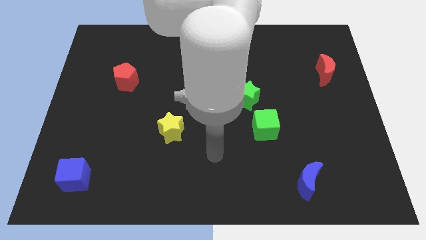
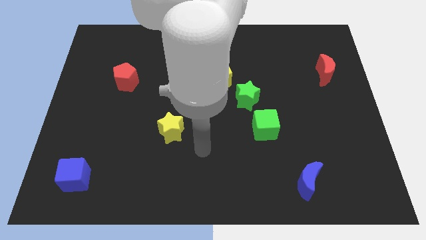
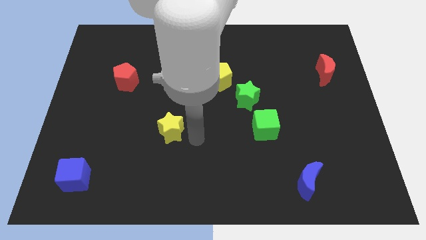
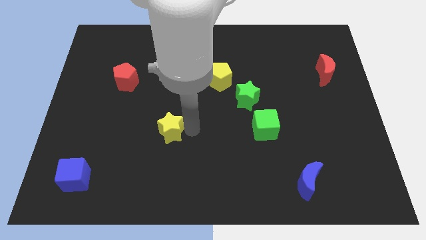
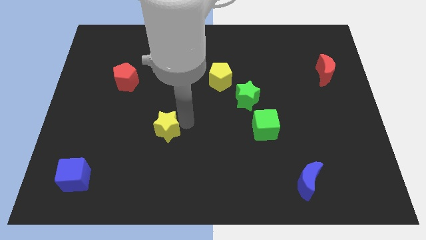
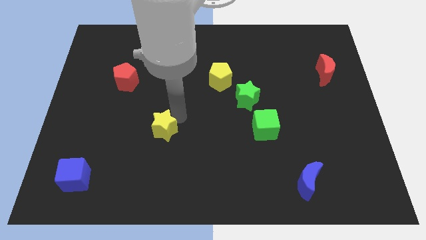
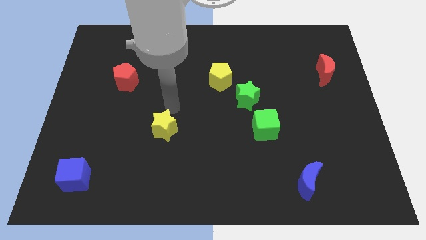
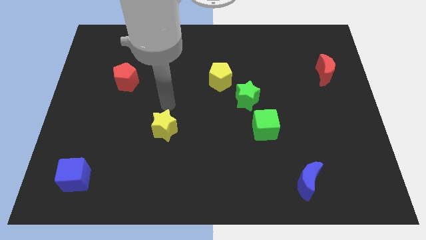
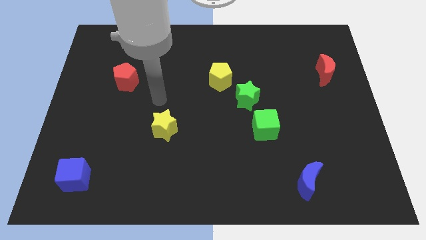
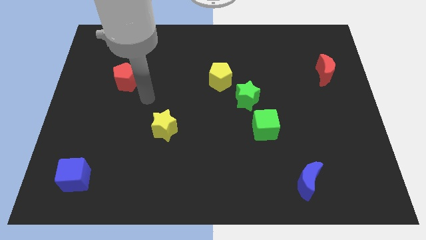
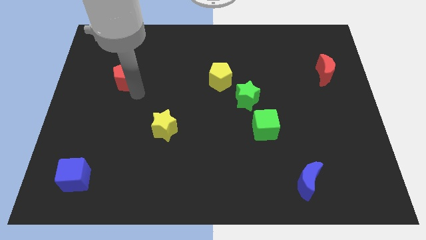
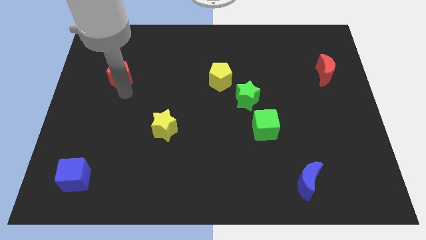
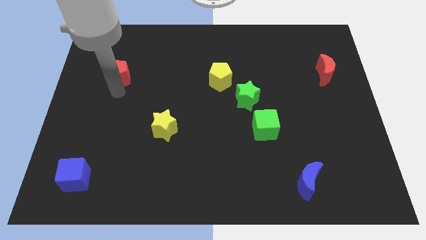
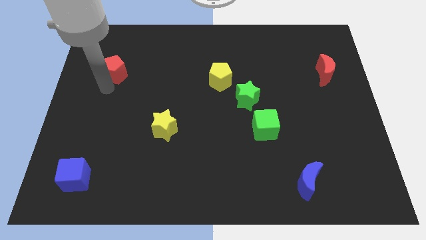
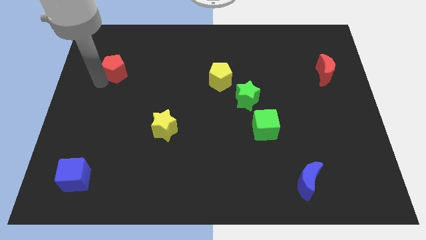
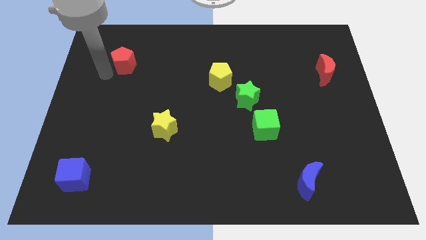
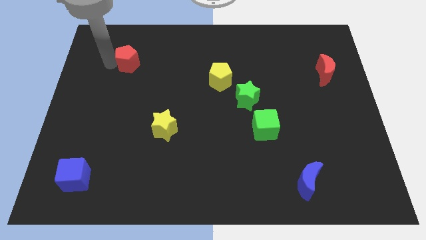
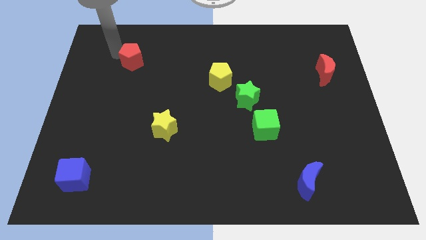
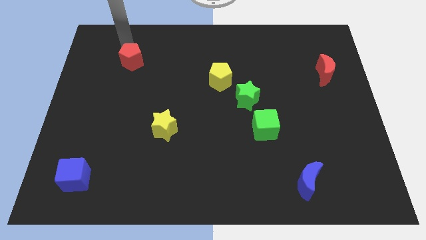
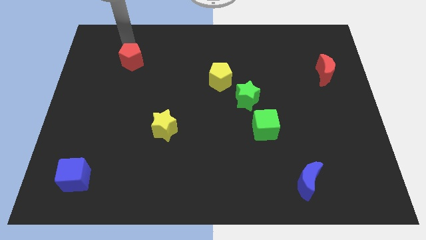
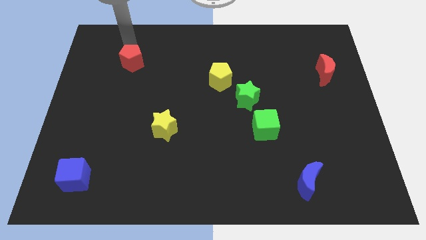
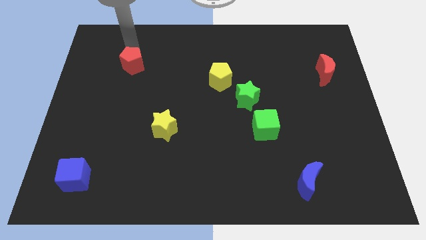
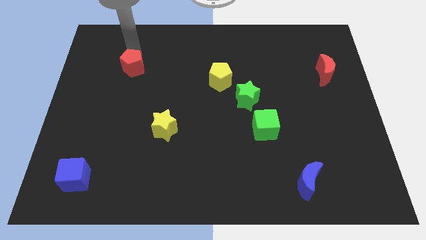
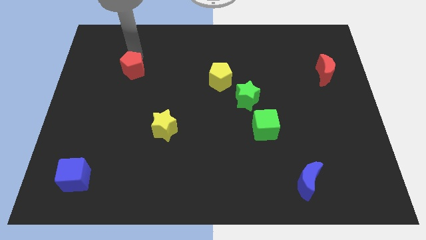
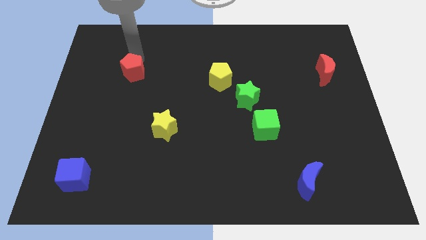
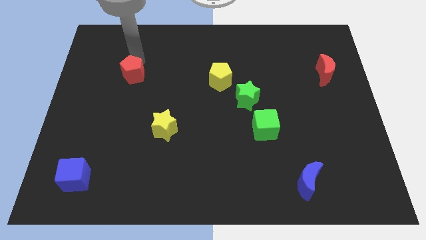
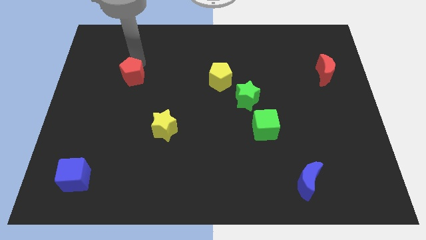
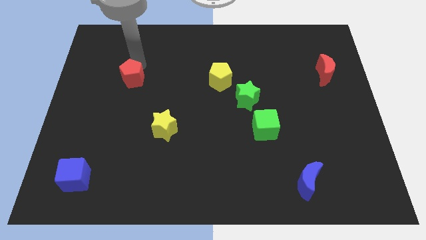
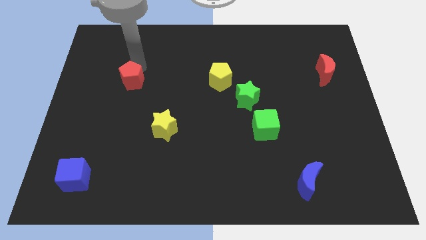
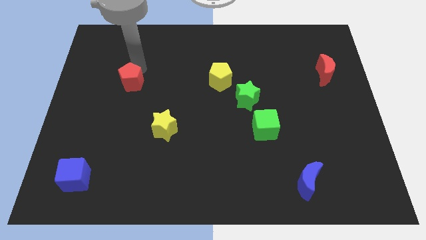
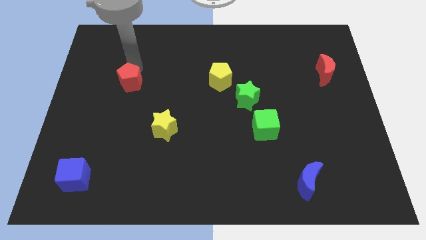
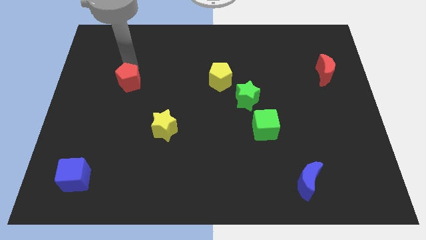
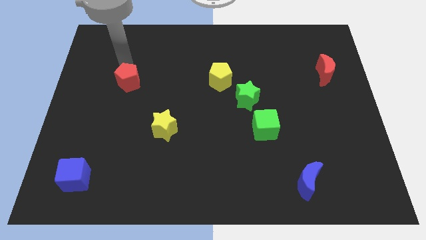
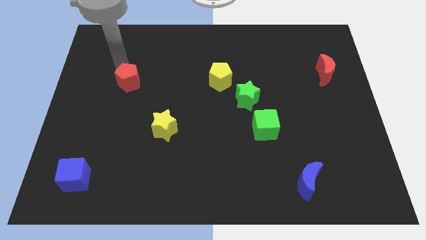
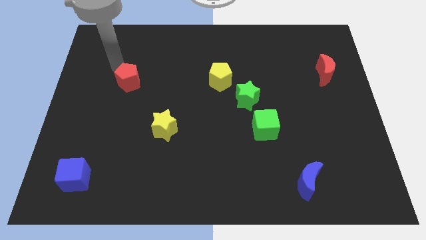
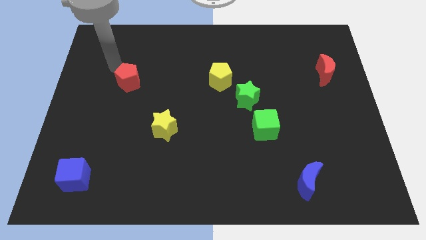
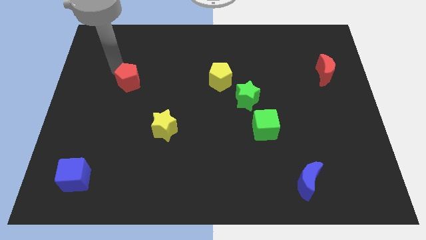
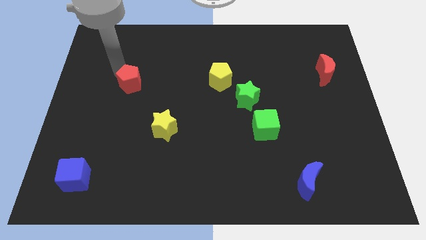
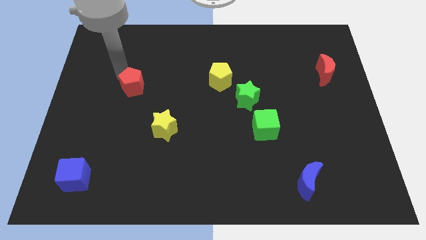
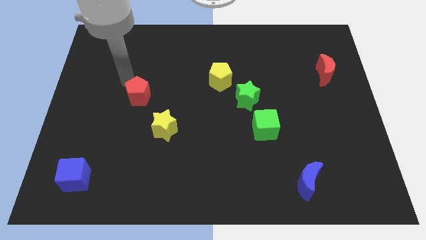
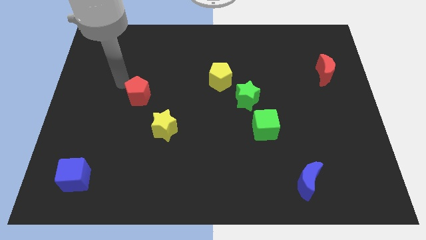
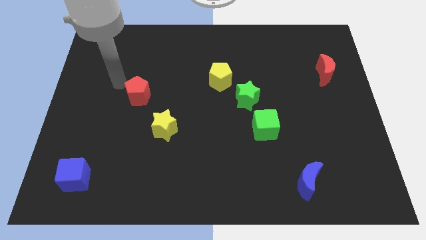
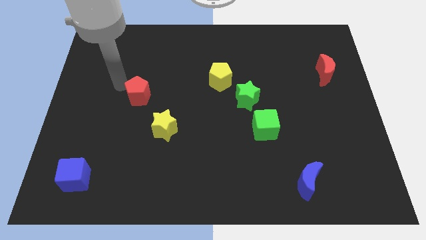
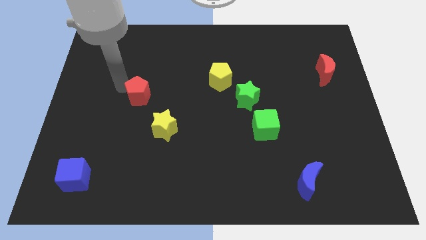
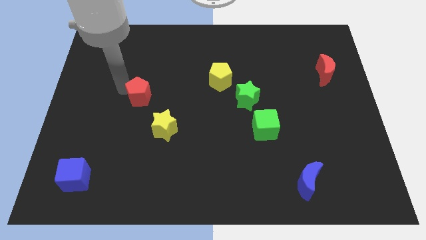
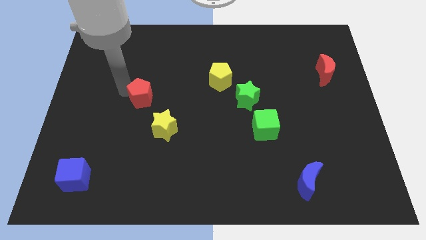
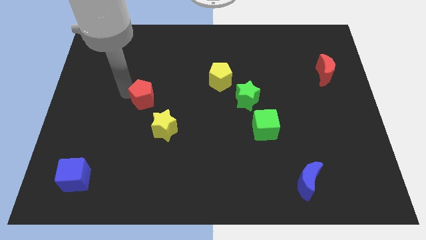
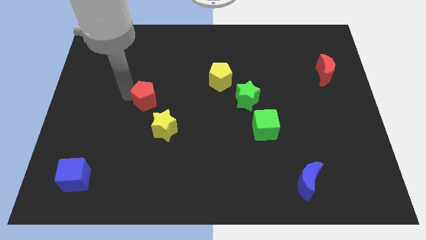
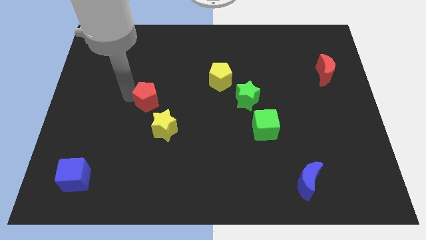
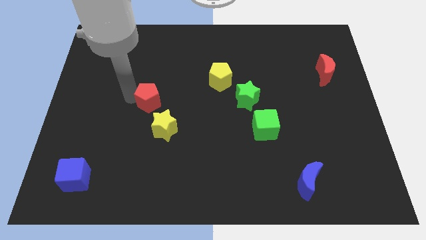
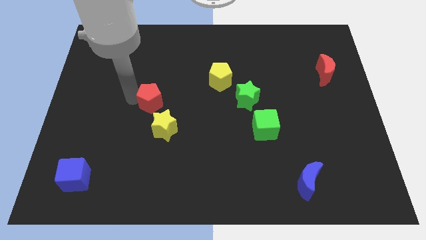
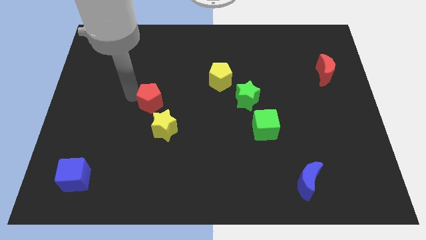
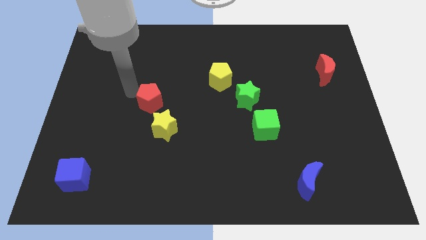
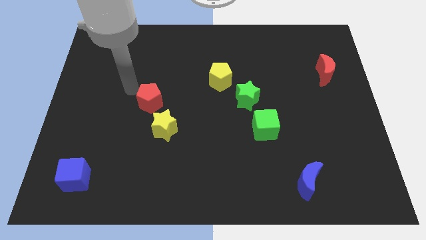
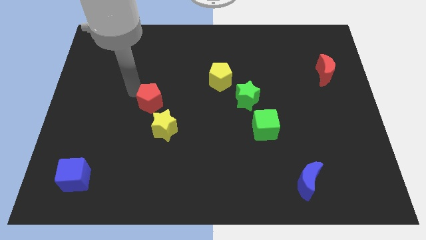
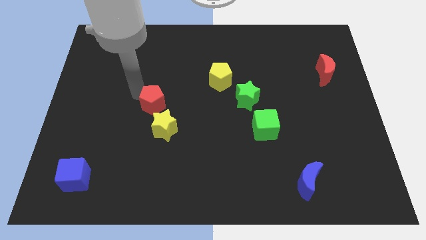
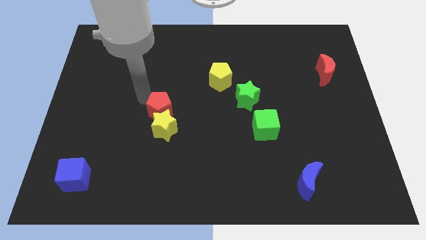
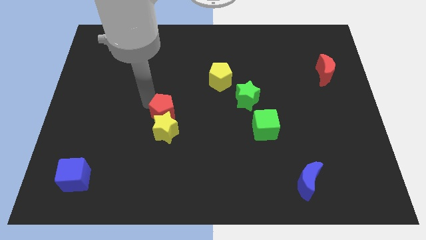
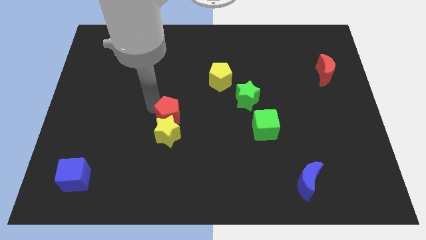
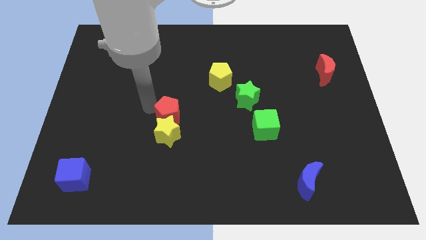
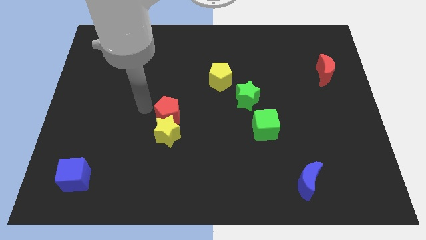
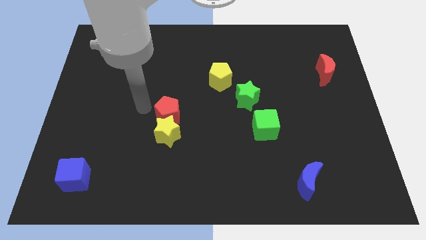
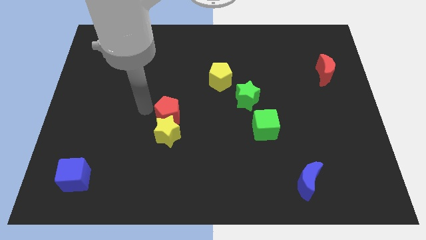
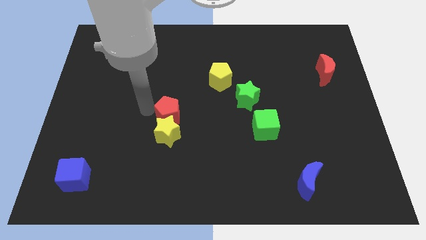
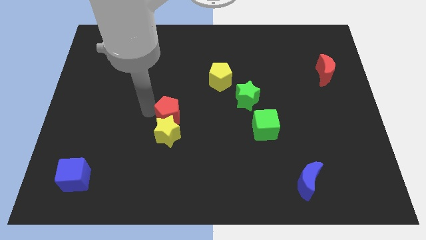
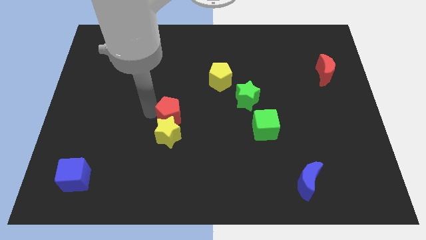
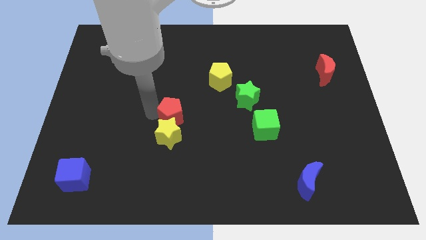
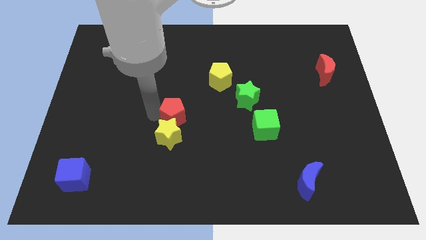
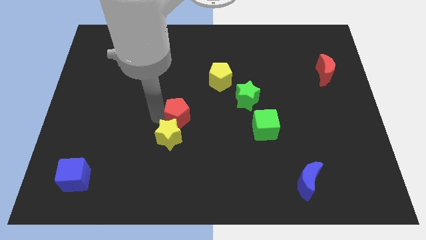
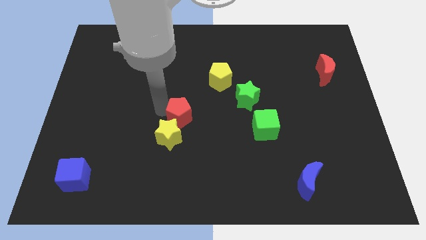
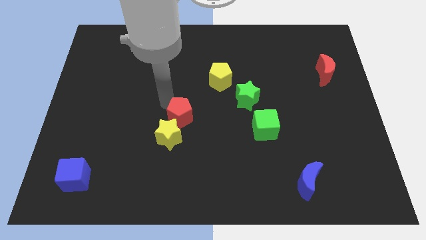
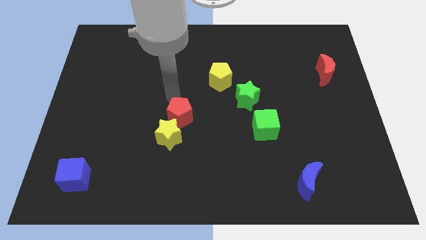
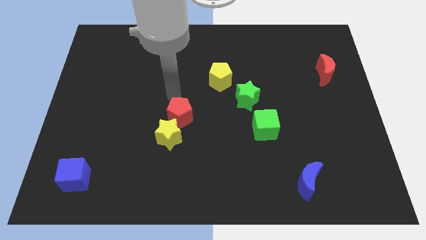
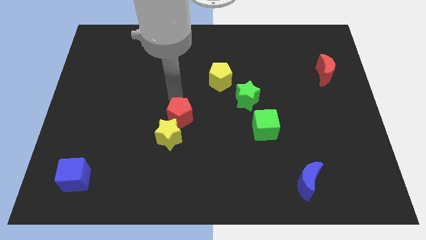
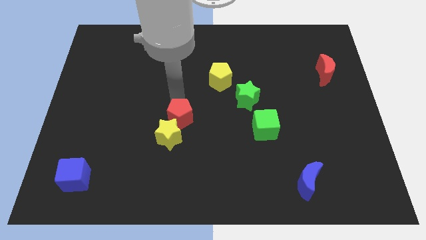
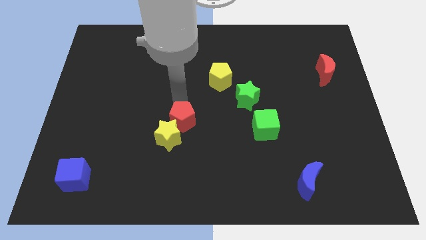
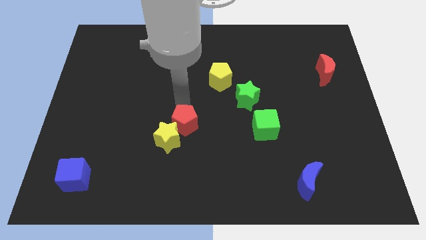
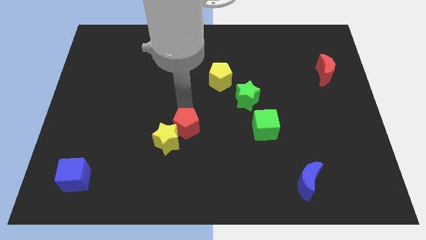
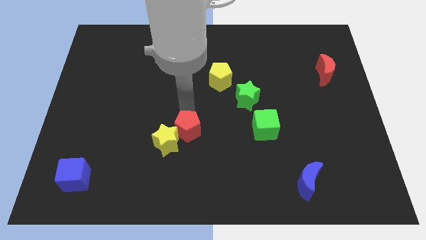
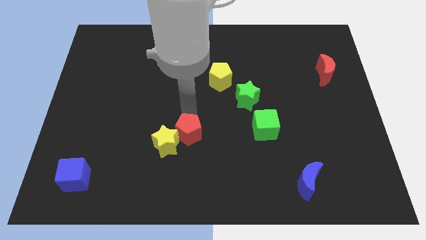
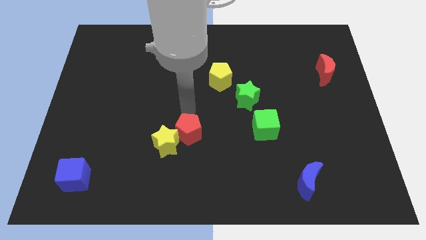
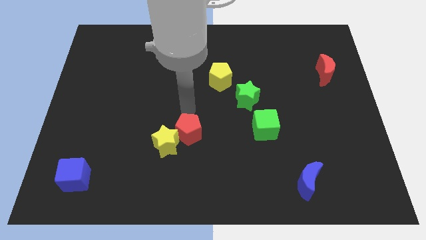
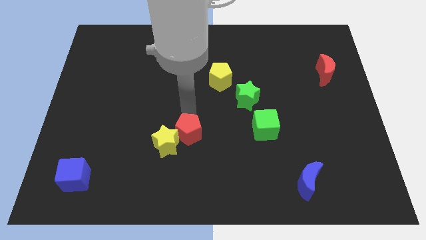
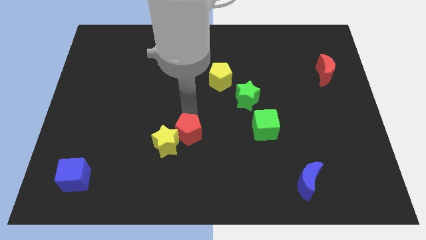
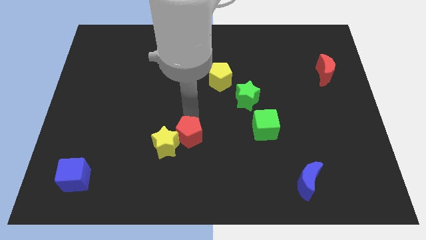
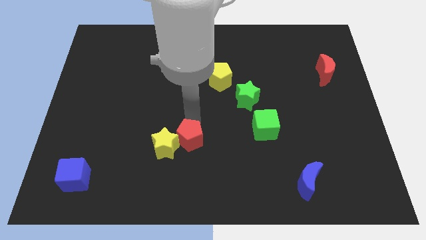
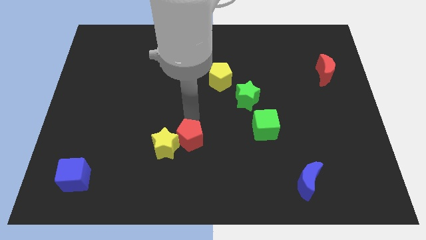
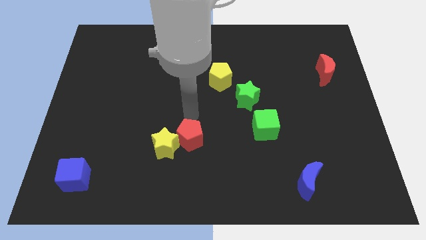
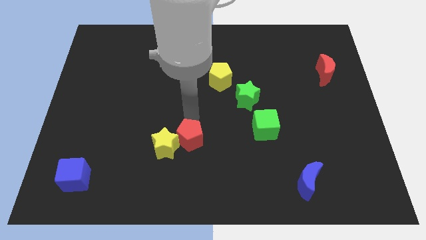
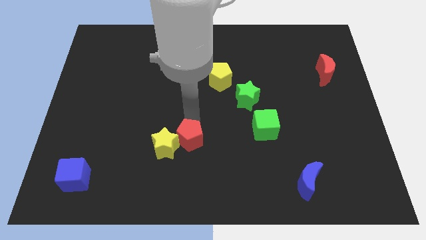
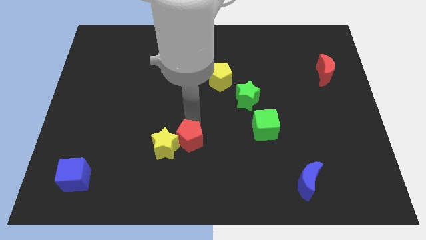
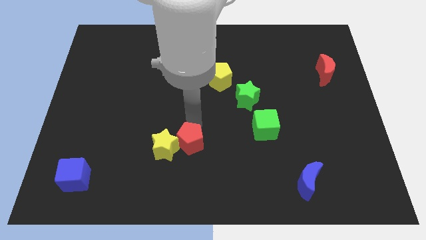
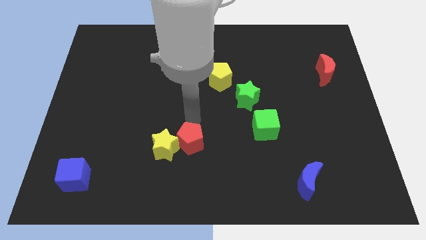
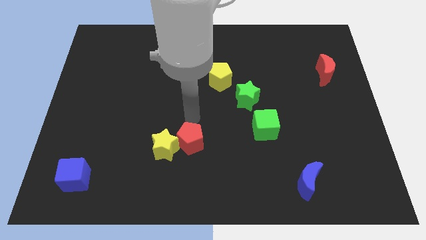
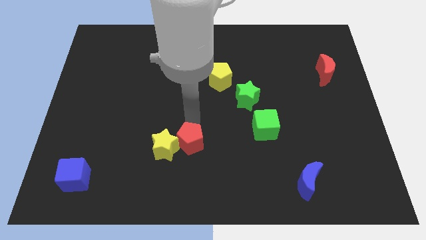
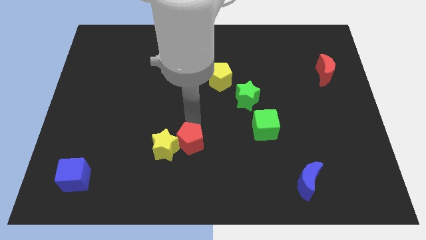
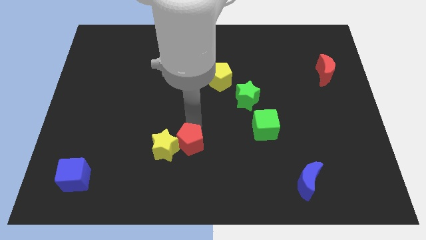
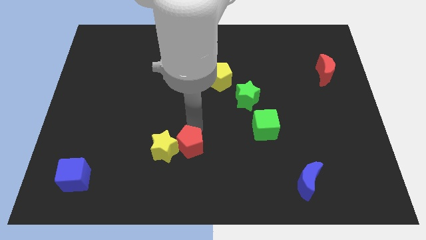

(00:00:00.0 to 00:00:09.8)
push the red pentagon to the bottom right side of the yellow star
